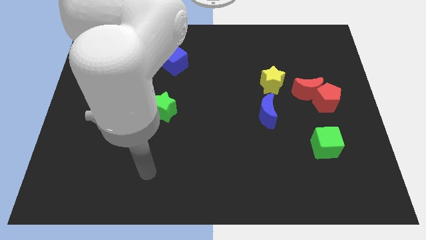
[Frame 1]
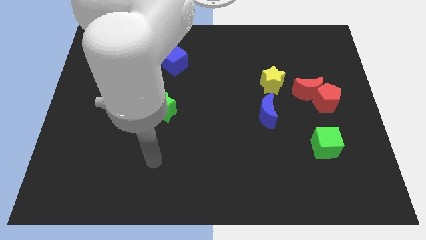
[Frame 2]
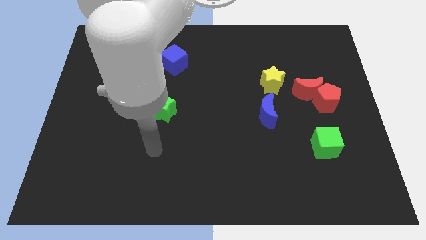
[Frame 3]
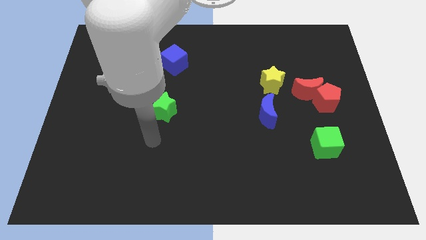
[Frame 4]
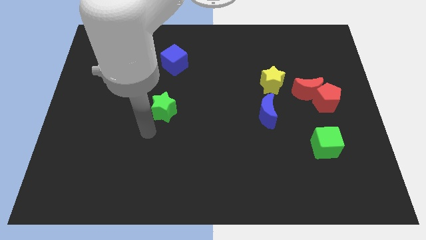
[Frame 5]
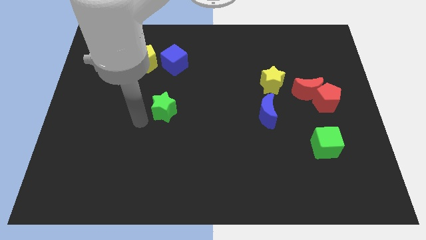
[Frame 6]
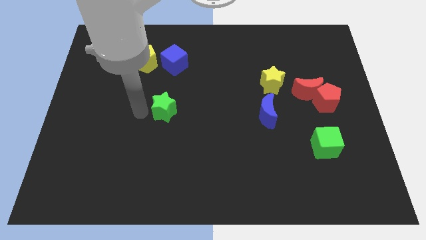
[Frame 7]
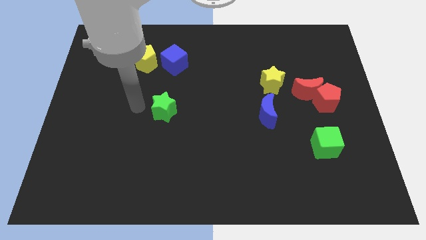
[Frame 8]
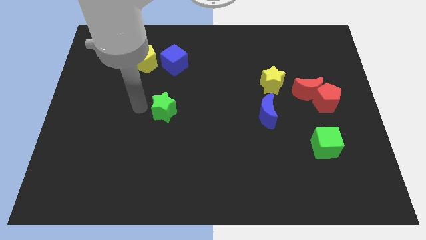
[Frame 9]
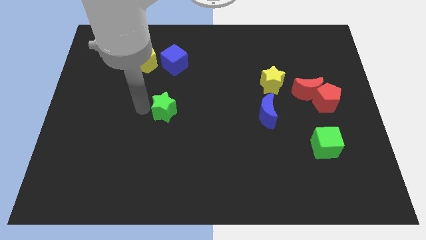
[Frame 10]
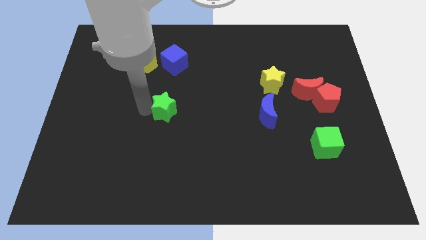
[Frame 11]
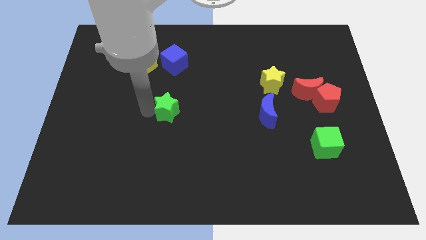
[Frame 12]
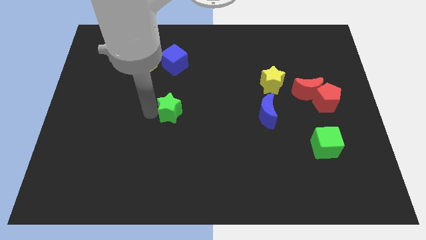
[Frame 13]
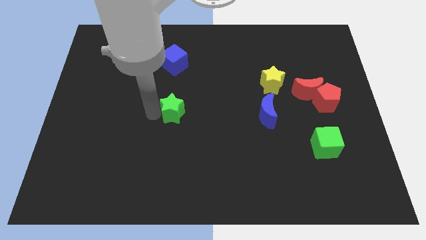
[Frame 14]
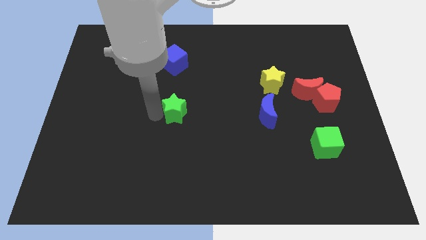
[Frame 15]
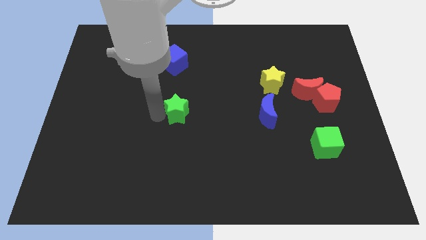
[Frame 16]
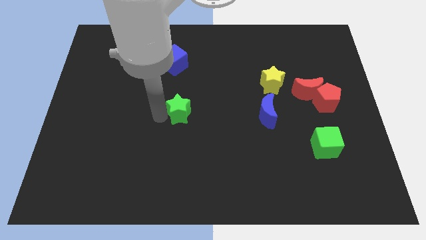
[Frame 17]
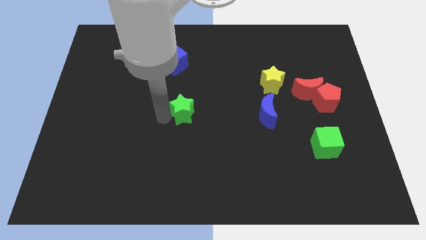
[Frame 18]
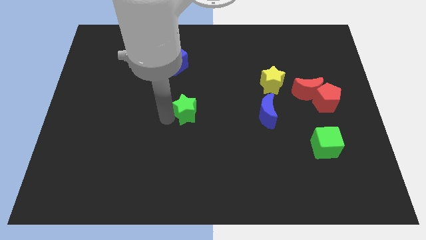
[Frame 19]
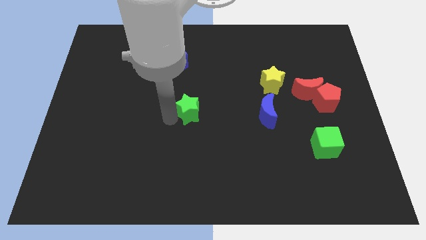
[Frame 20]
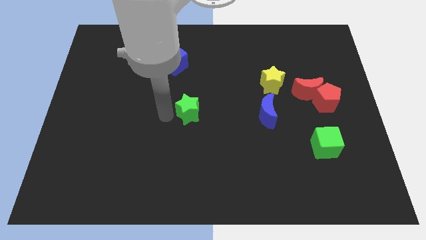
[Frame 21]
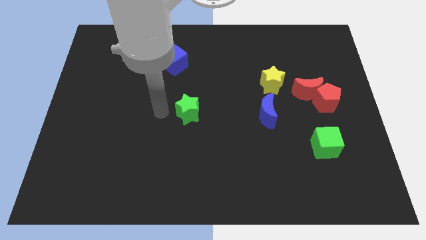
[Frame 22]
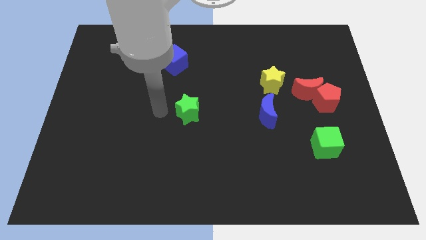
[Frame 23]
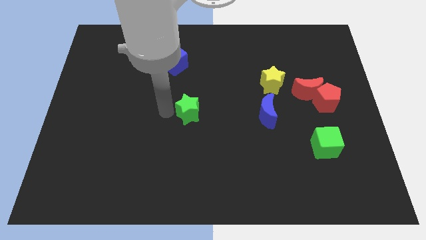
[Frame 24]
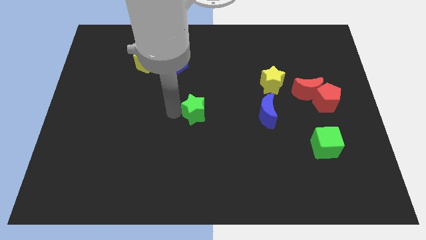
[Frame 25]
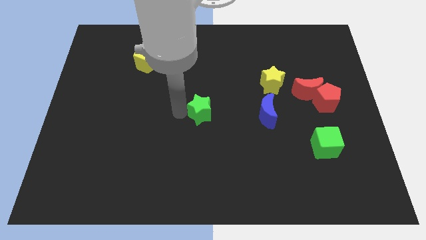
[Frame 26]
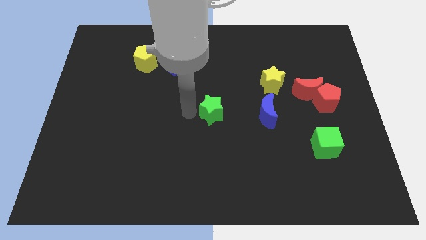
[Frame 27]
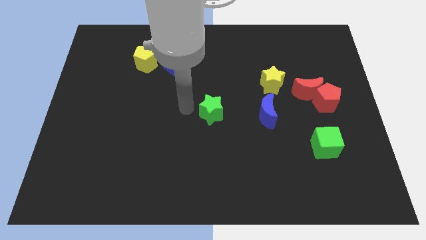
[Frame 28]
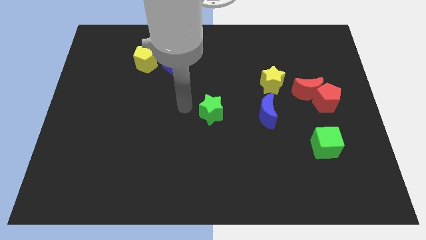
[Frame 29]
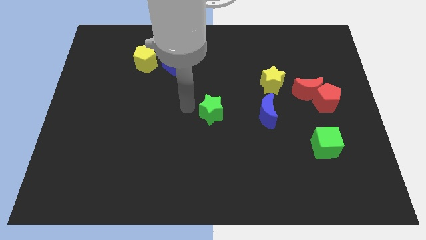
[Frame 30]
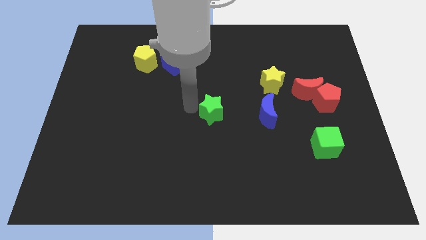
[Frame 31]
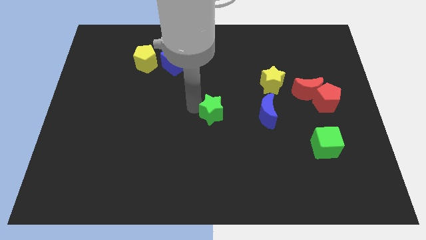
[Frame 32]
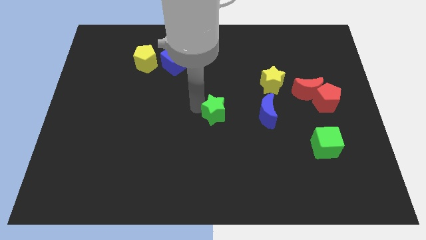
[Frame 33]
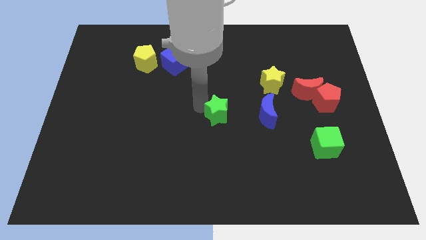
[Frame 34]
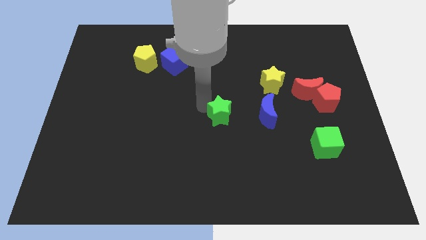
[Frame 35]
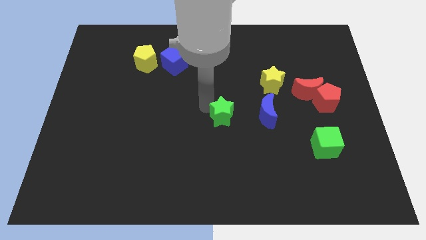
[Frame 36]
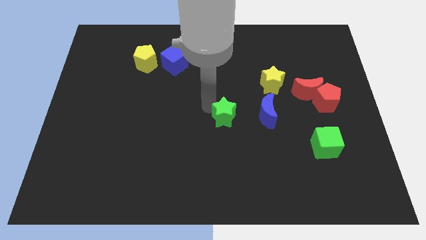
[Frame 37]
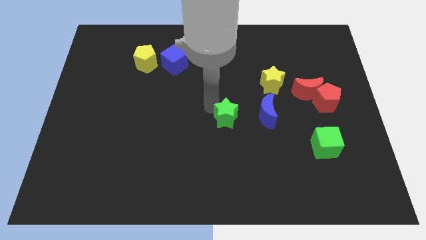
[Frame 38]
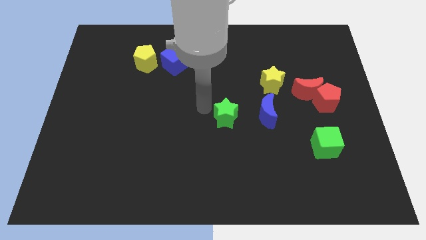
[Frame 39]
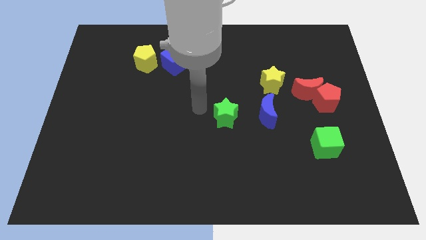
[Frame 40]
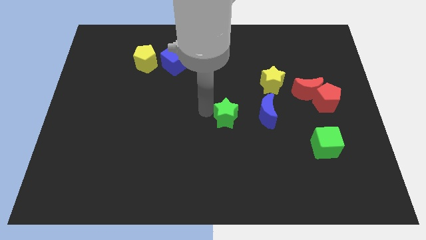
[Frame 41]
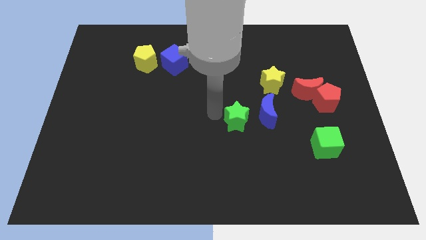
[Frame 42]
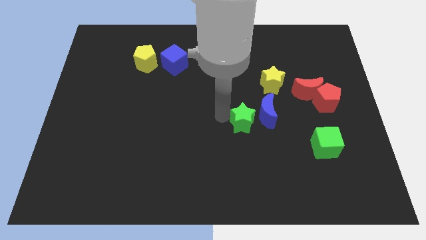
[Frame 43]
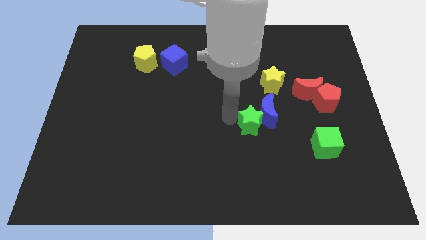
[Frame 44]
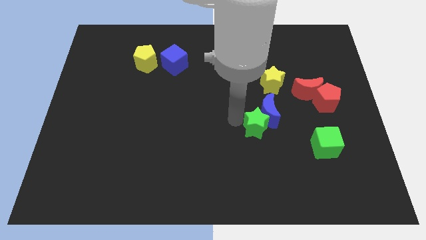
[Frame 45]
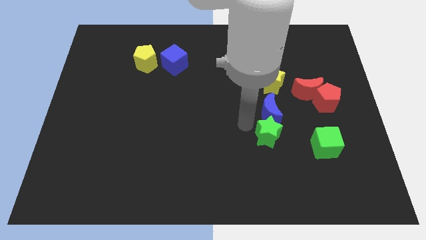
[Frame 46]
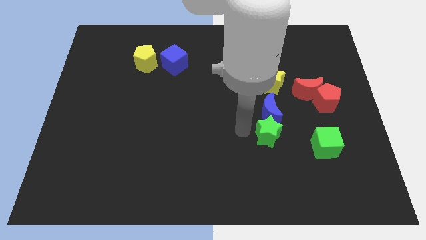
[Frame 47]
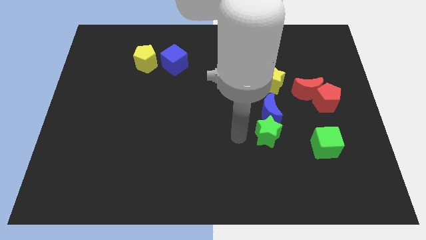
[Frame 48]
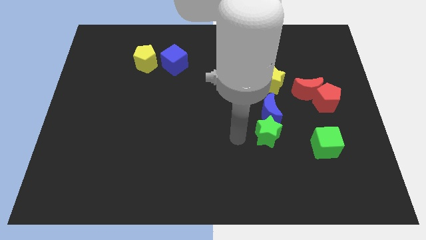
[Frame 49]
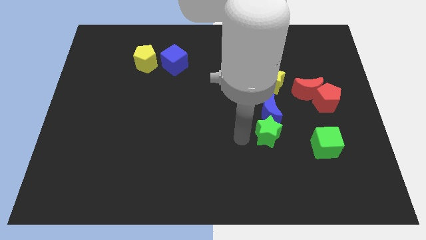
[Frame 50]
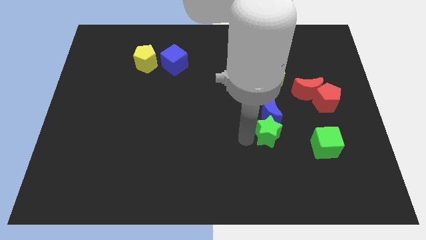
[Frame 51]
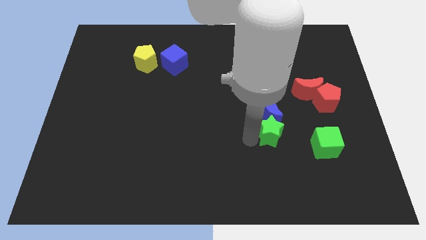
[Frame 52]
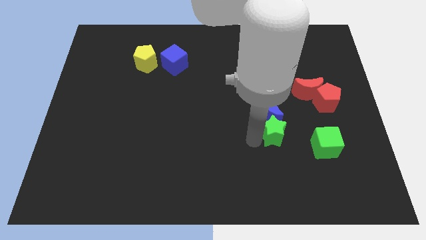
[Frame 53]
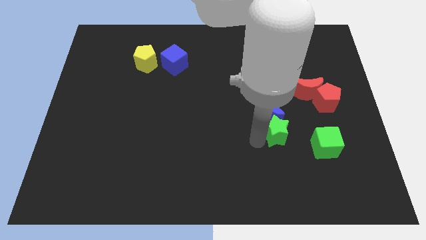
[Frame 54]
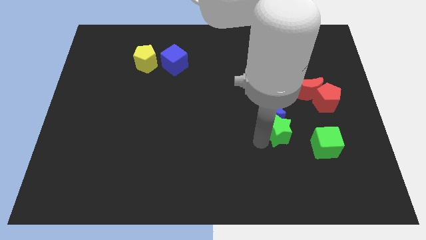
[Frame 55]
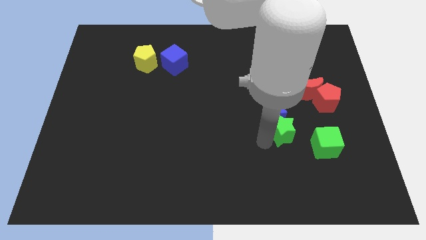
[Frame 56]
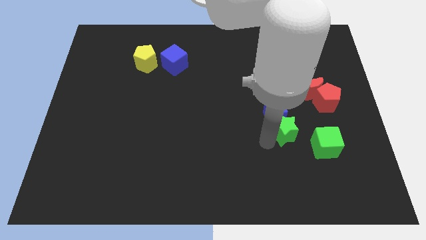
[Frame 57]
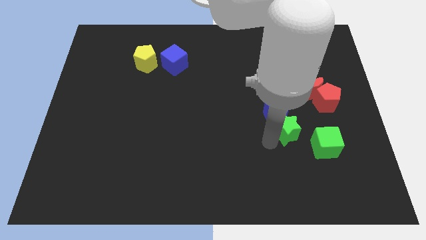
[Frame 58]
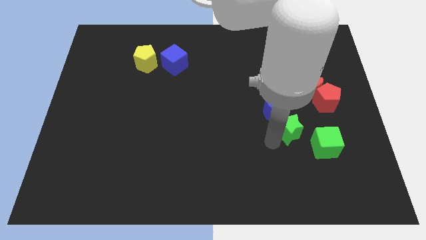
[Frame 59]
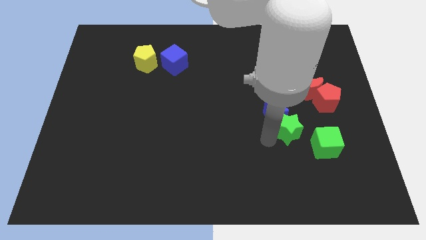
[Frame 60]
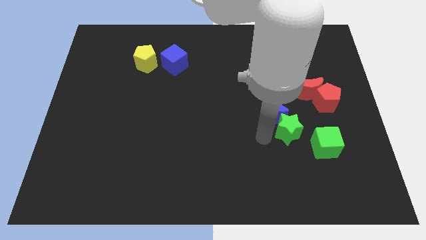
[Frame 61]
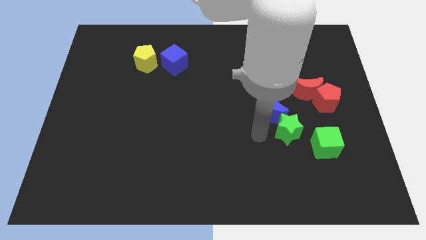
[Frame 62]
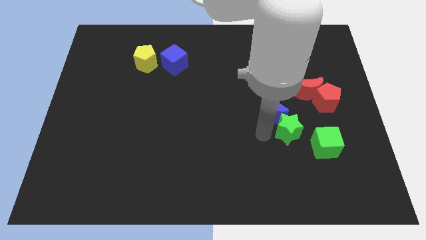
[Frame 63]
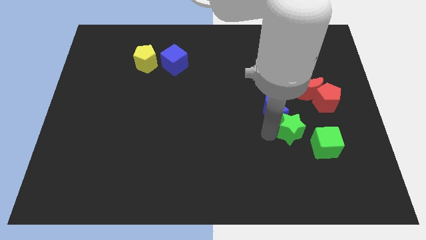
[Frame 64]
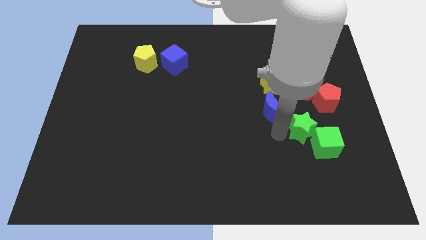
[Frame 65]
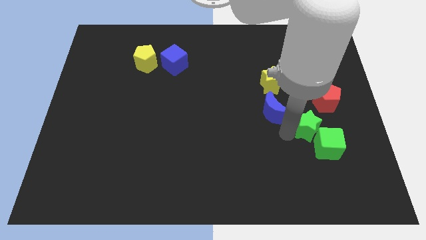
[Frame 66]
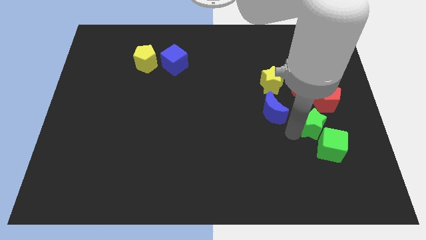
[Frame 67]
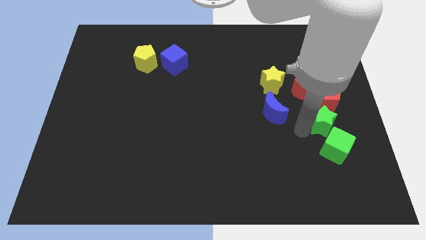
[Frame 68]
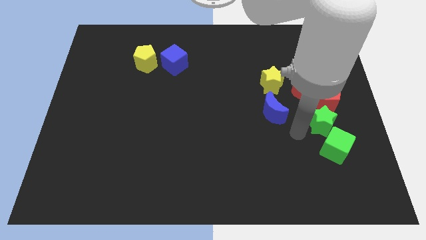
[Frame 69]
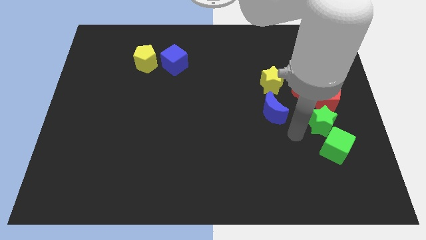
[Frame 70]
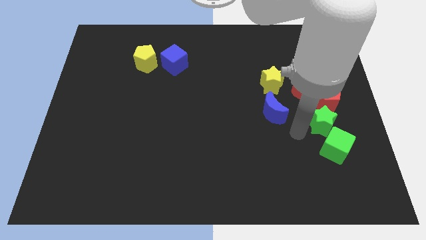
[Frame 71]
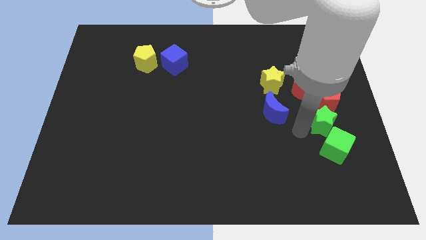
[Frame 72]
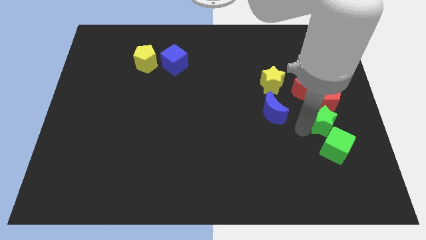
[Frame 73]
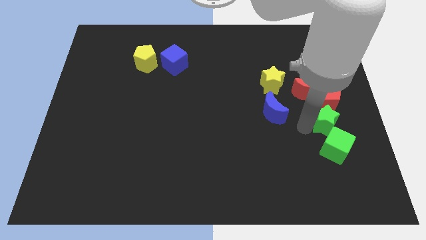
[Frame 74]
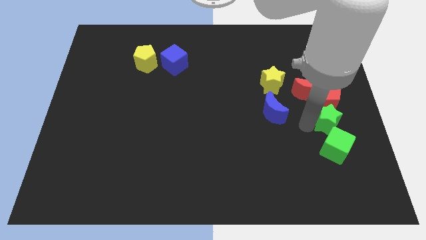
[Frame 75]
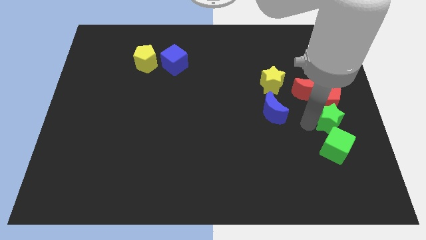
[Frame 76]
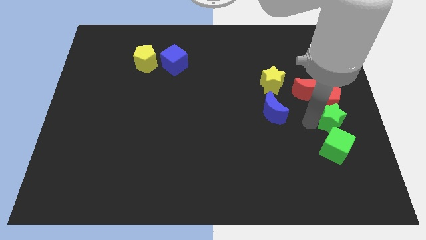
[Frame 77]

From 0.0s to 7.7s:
slide the green star to the right side of the board
